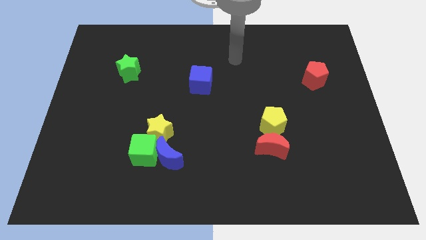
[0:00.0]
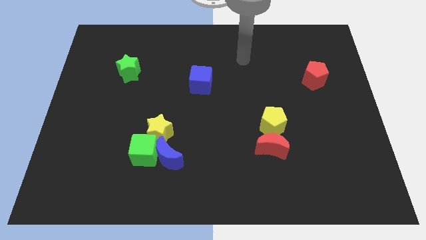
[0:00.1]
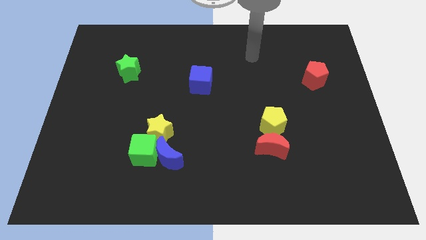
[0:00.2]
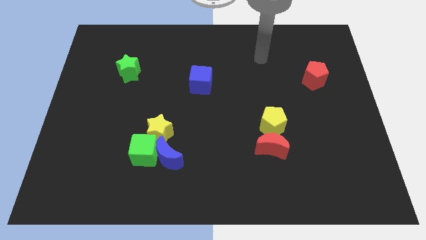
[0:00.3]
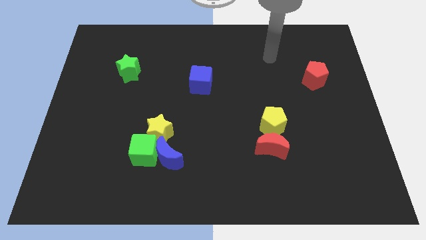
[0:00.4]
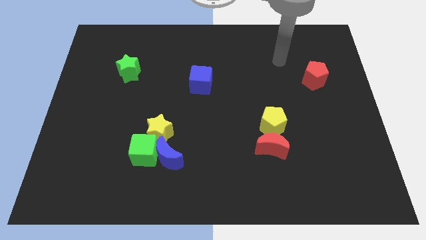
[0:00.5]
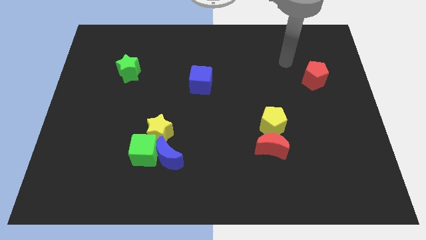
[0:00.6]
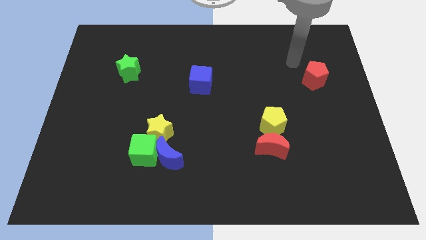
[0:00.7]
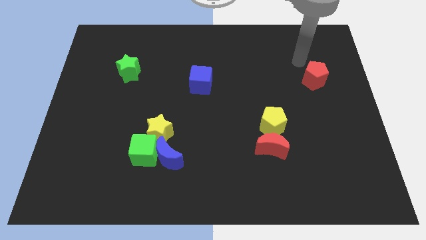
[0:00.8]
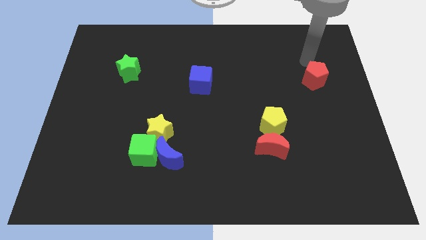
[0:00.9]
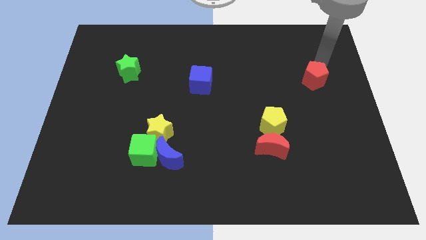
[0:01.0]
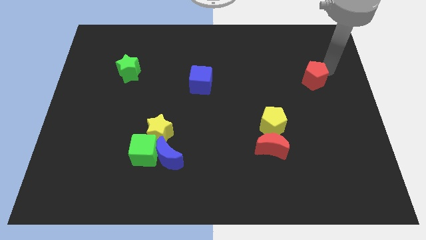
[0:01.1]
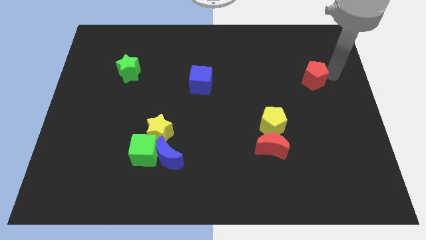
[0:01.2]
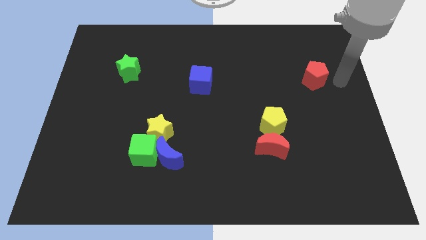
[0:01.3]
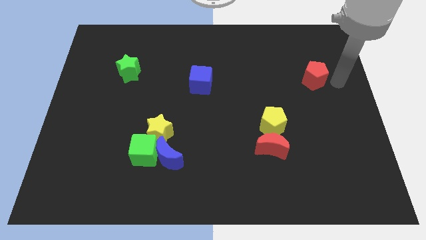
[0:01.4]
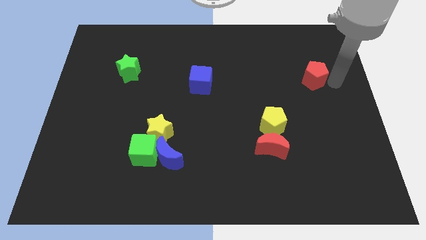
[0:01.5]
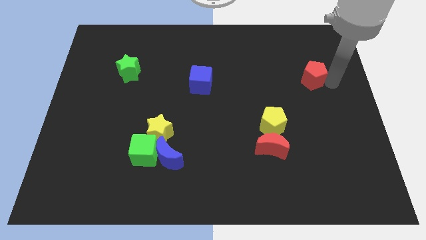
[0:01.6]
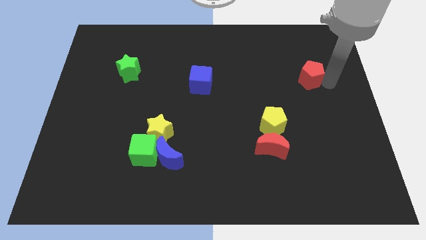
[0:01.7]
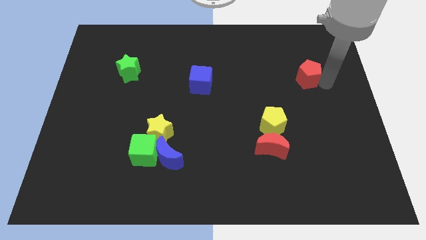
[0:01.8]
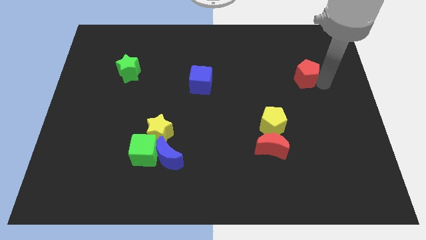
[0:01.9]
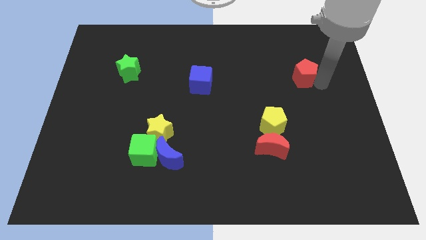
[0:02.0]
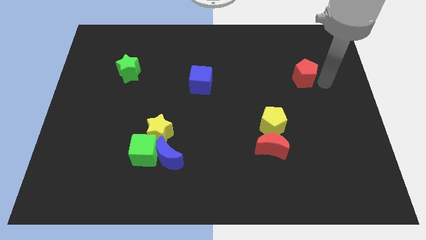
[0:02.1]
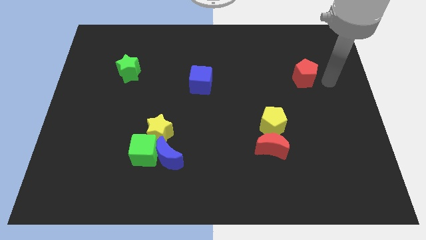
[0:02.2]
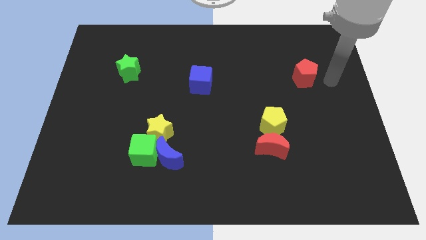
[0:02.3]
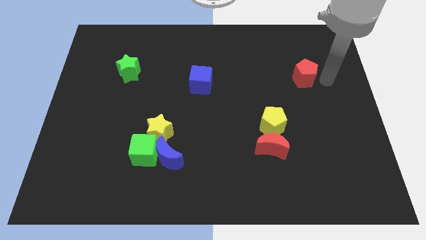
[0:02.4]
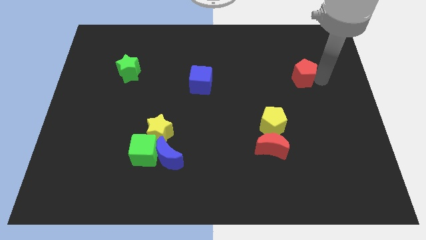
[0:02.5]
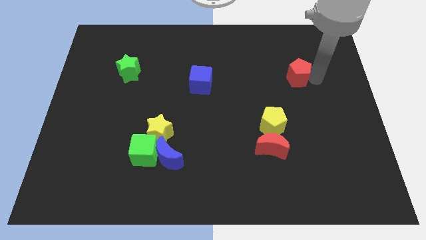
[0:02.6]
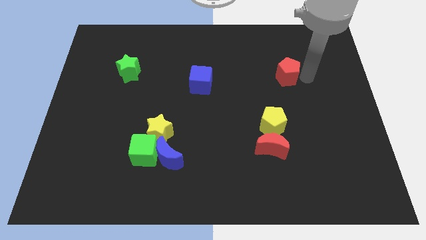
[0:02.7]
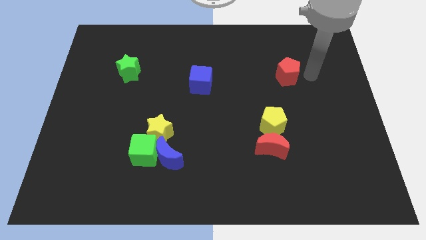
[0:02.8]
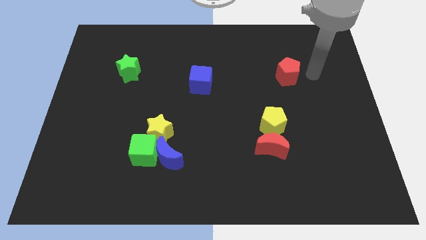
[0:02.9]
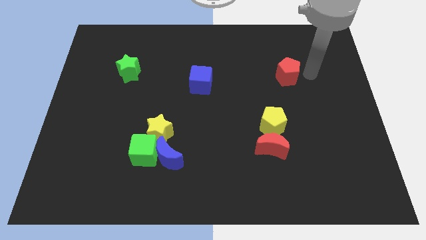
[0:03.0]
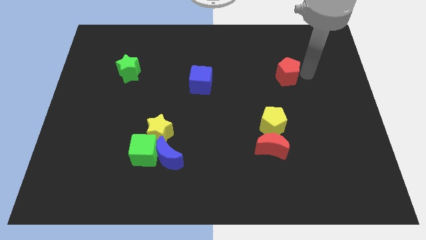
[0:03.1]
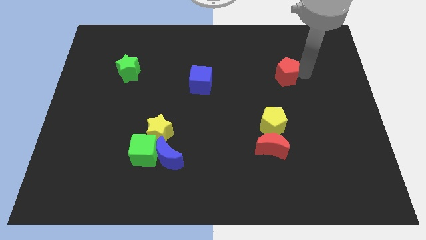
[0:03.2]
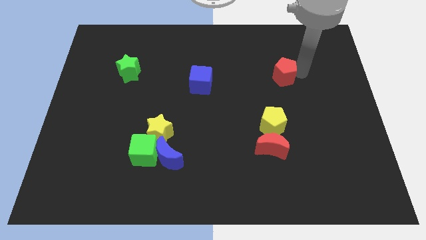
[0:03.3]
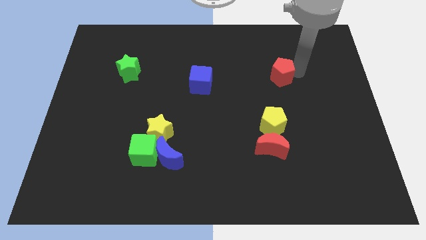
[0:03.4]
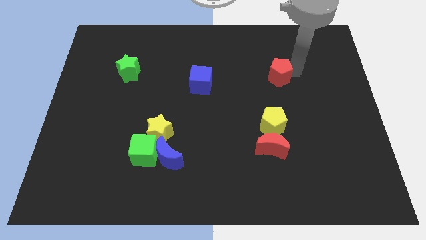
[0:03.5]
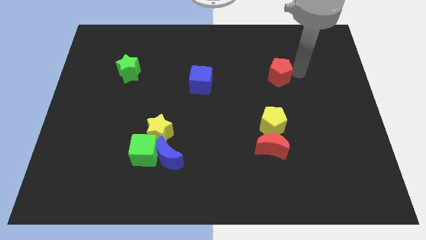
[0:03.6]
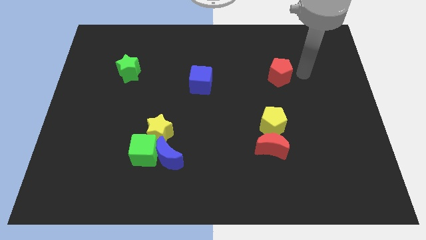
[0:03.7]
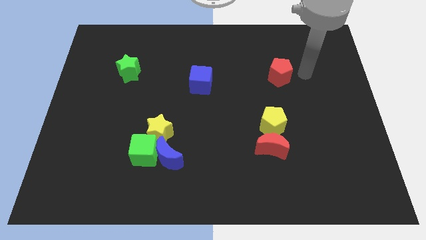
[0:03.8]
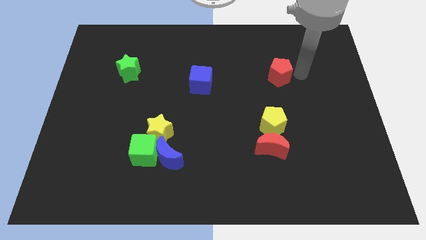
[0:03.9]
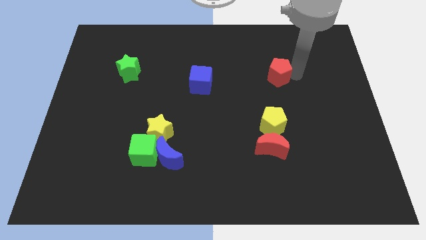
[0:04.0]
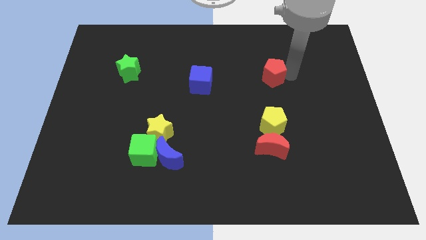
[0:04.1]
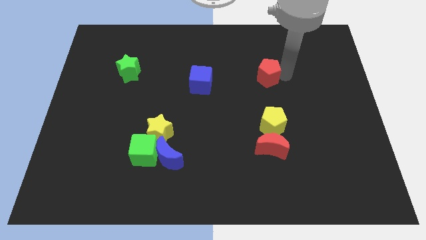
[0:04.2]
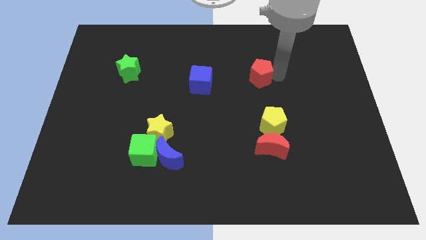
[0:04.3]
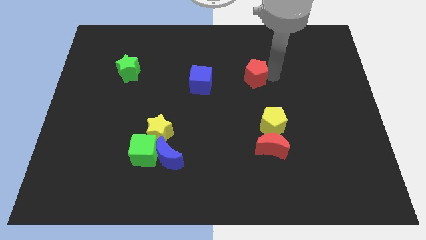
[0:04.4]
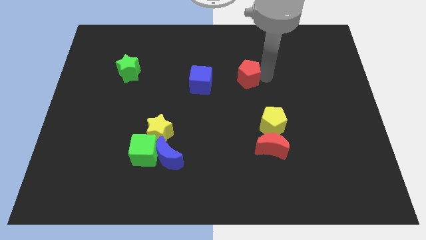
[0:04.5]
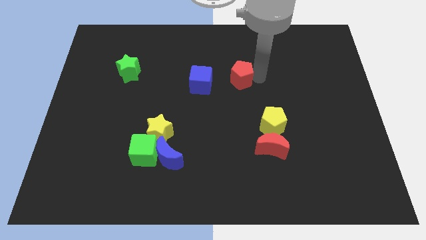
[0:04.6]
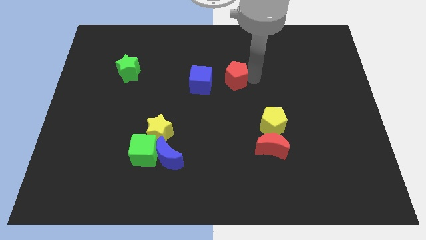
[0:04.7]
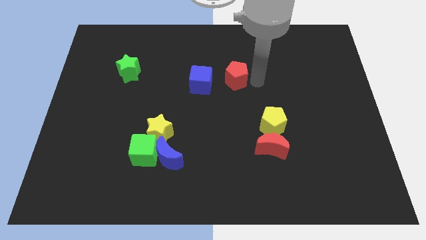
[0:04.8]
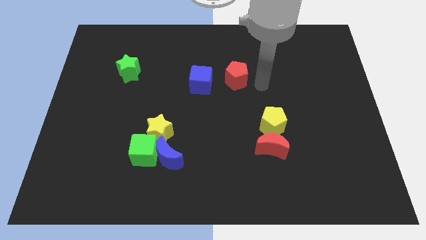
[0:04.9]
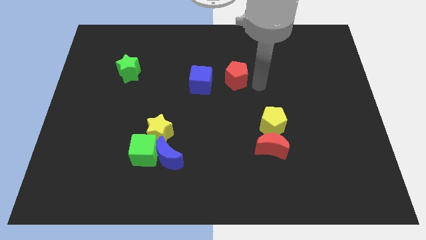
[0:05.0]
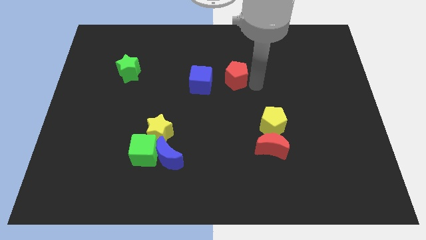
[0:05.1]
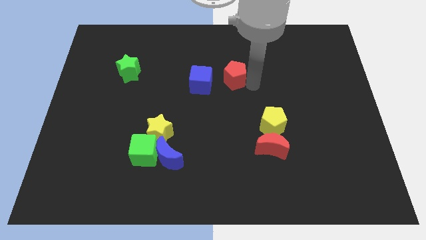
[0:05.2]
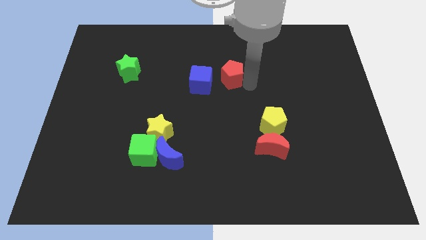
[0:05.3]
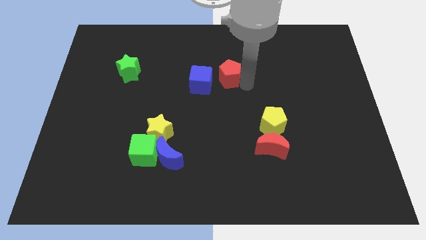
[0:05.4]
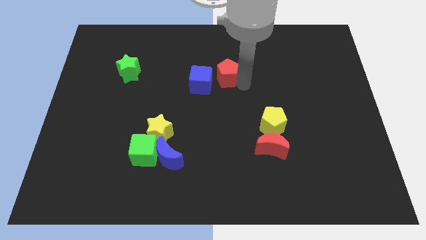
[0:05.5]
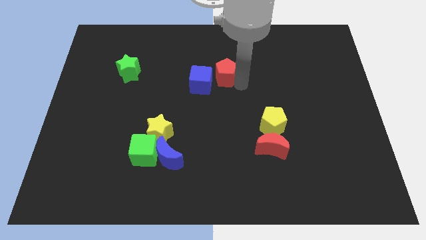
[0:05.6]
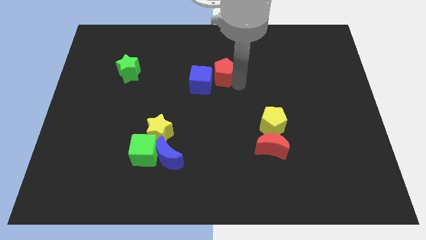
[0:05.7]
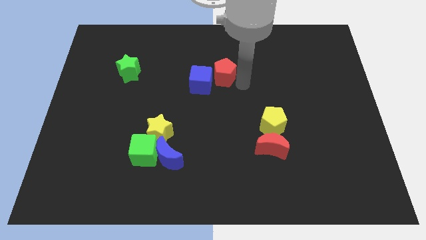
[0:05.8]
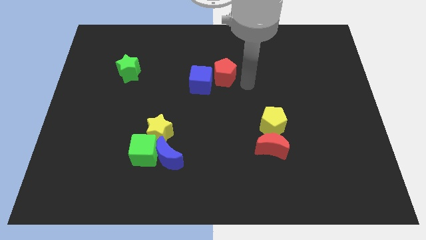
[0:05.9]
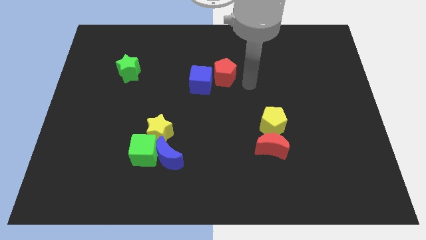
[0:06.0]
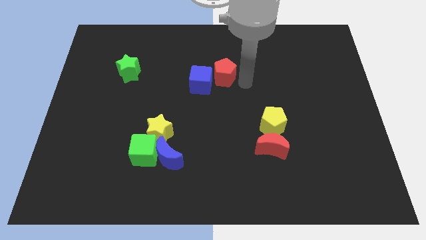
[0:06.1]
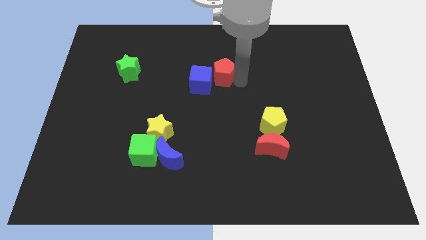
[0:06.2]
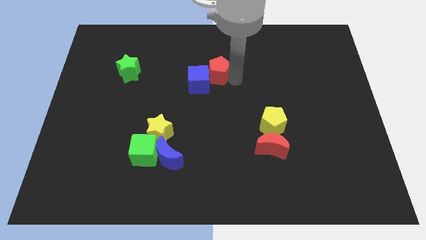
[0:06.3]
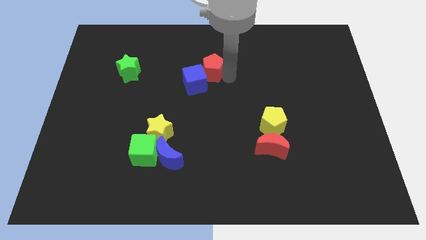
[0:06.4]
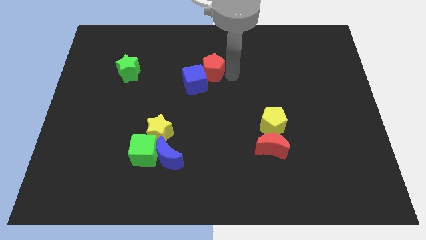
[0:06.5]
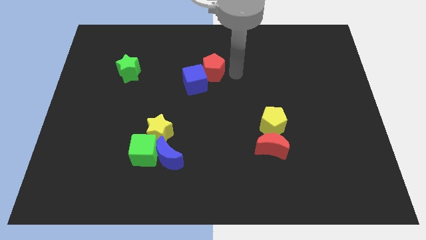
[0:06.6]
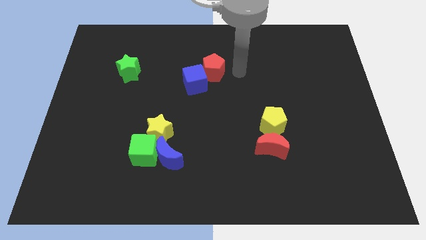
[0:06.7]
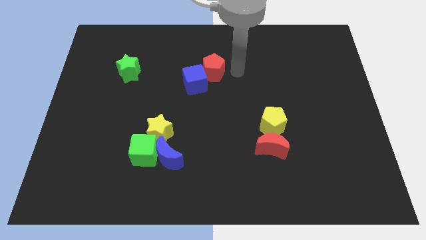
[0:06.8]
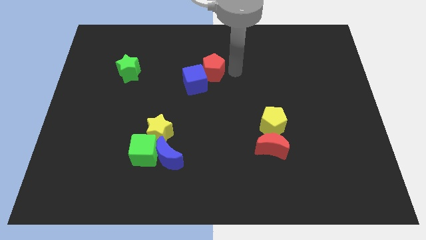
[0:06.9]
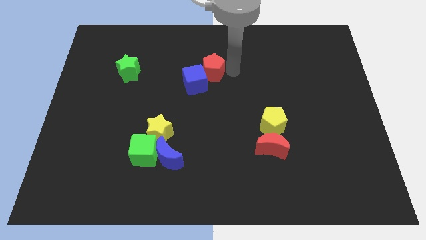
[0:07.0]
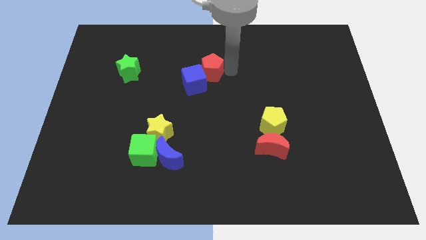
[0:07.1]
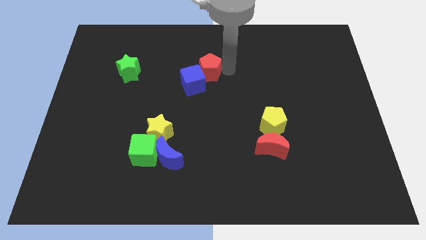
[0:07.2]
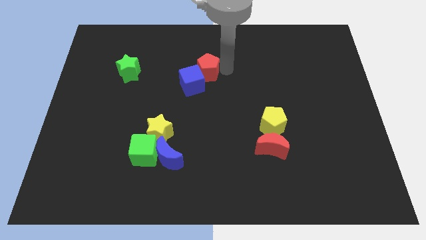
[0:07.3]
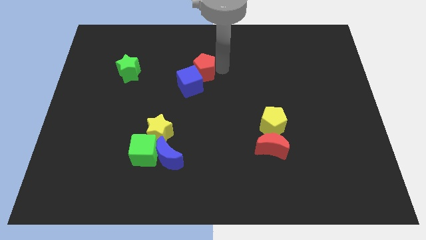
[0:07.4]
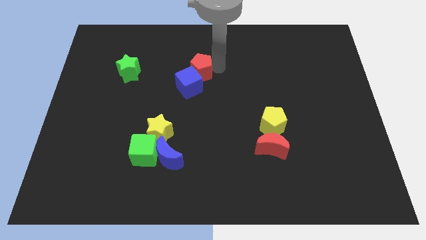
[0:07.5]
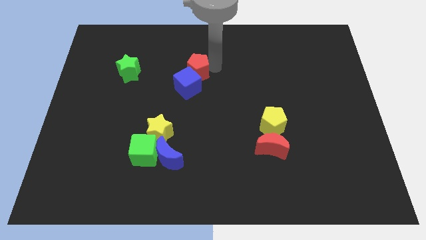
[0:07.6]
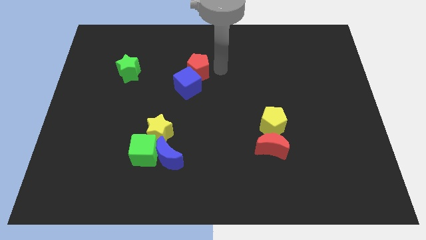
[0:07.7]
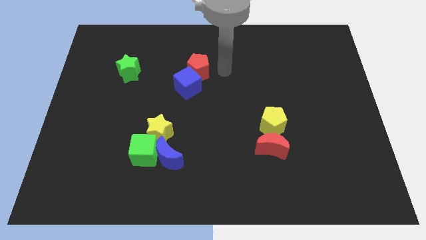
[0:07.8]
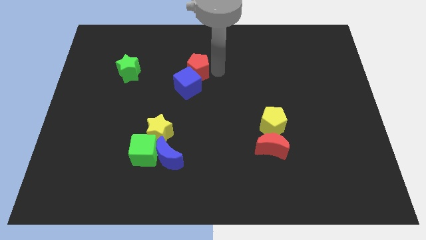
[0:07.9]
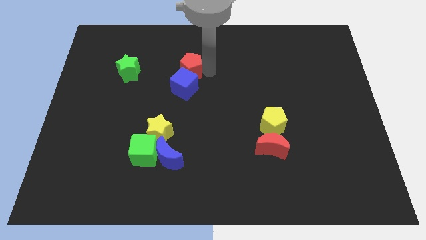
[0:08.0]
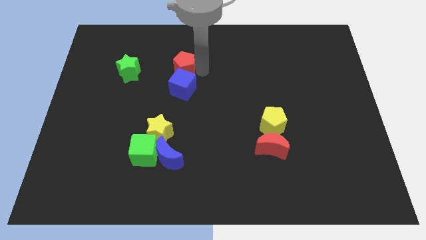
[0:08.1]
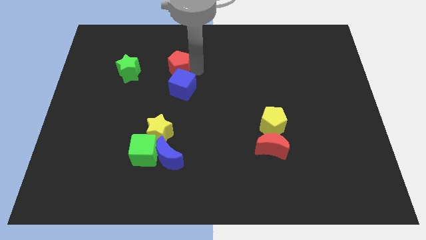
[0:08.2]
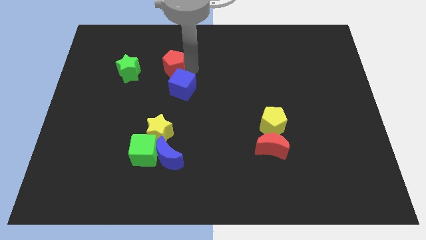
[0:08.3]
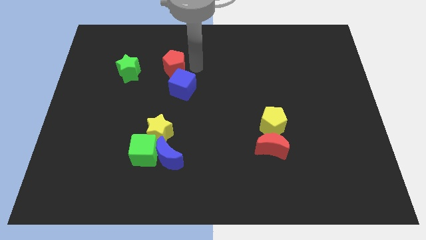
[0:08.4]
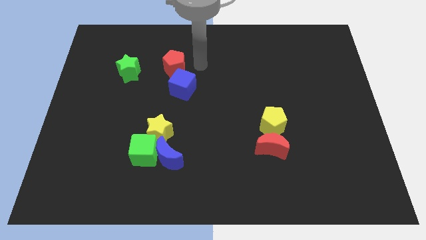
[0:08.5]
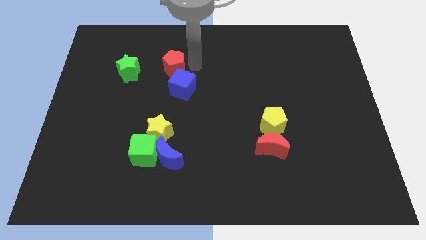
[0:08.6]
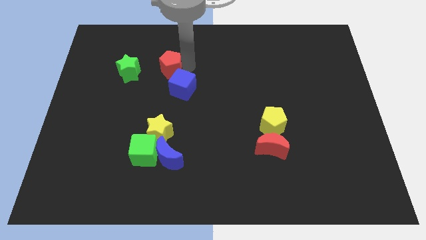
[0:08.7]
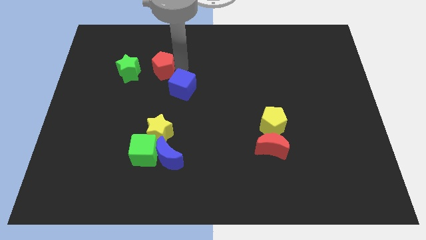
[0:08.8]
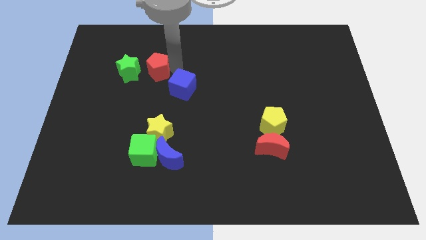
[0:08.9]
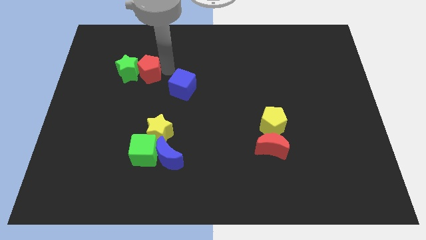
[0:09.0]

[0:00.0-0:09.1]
put the red pentagon towards the green star
